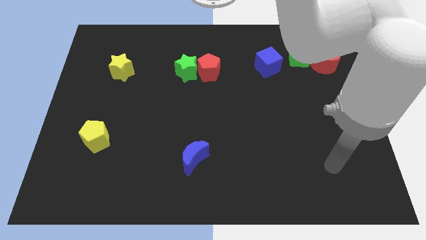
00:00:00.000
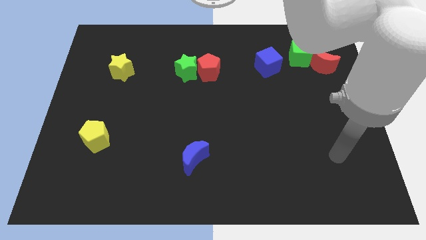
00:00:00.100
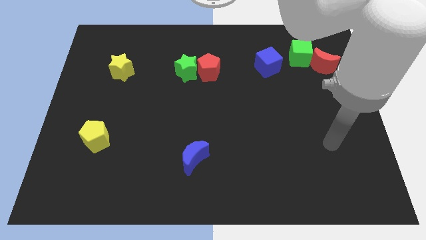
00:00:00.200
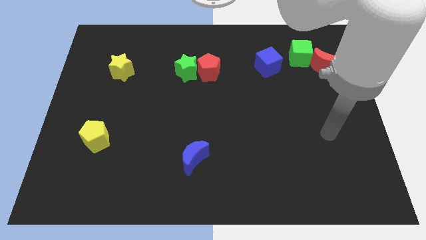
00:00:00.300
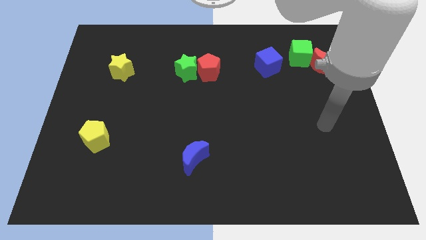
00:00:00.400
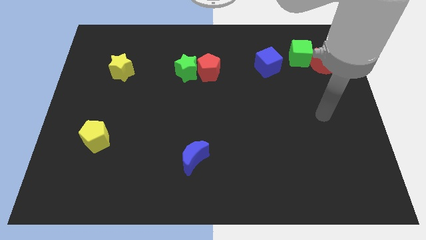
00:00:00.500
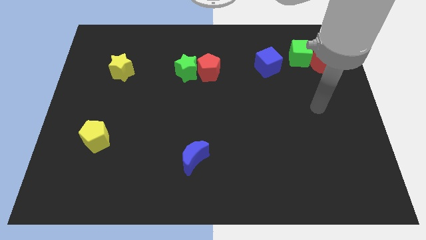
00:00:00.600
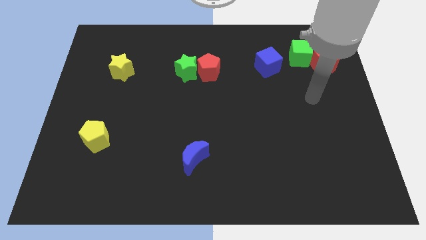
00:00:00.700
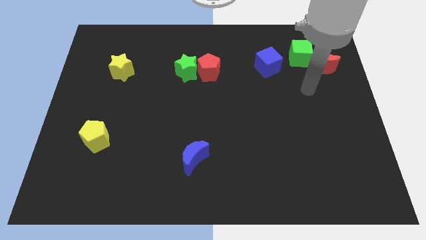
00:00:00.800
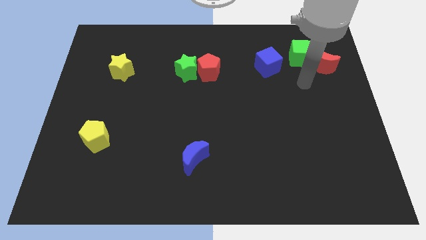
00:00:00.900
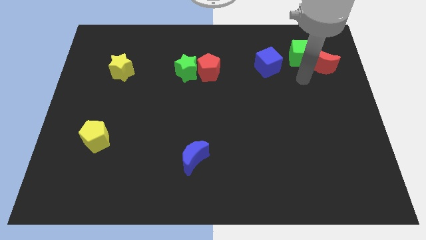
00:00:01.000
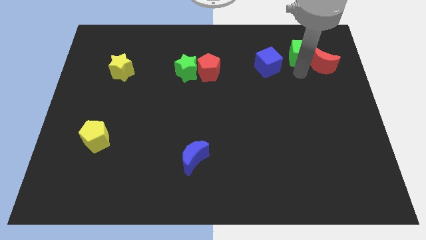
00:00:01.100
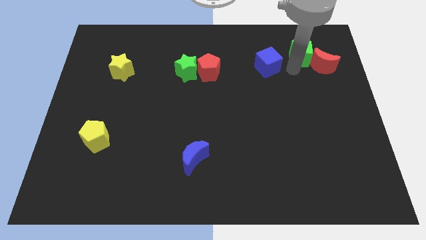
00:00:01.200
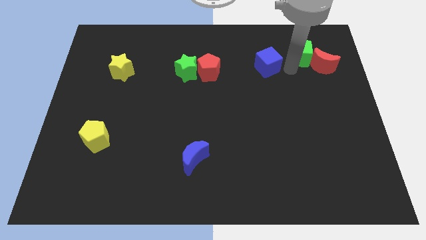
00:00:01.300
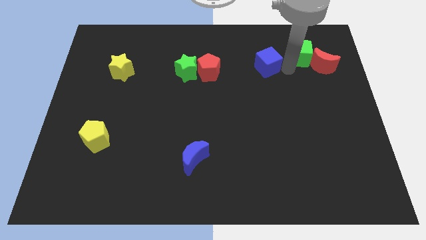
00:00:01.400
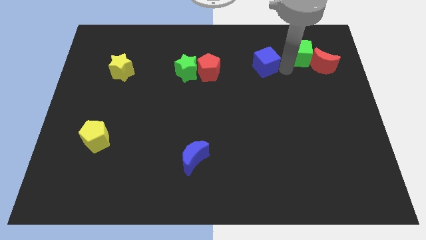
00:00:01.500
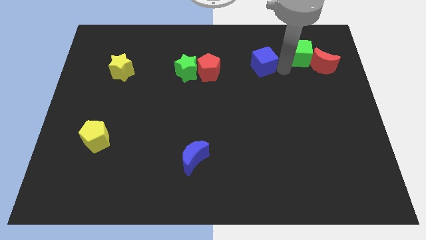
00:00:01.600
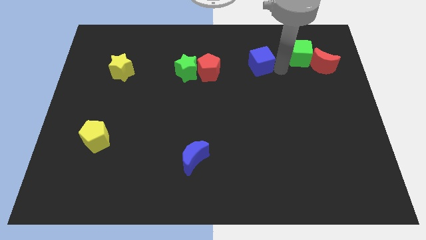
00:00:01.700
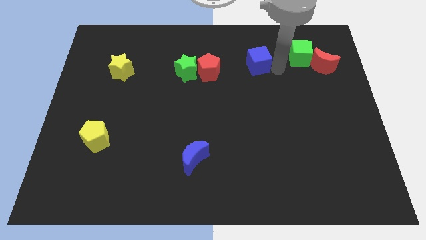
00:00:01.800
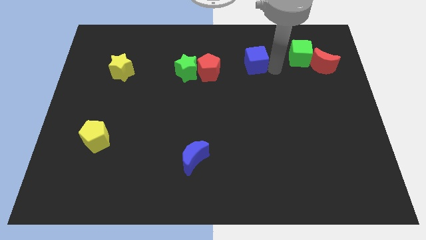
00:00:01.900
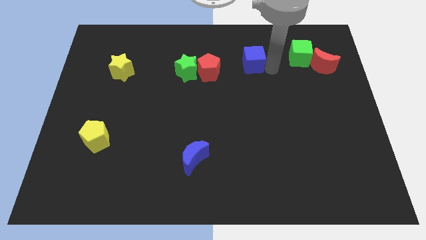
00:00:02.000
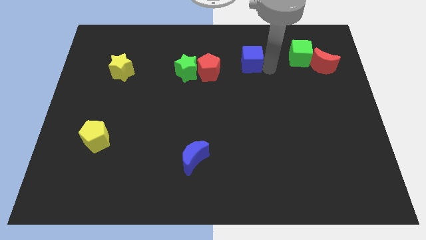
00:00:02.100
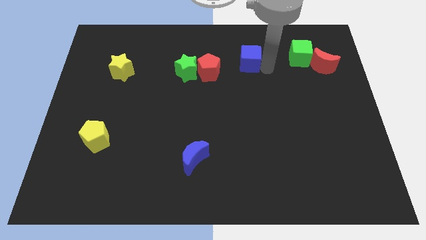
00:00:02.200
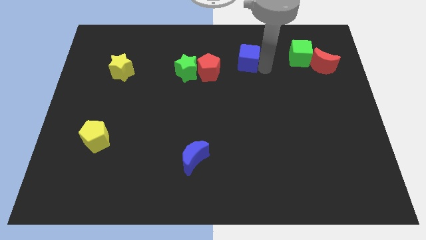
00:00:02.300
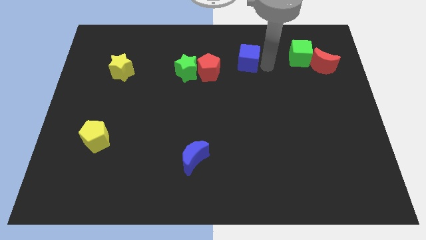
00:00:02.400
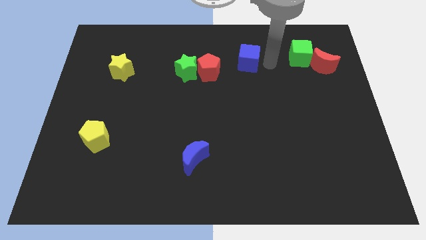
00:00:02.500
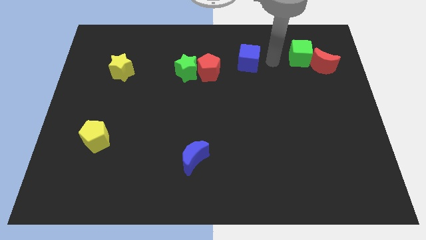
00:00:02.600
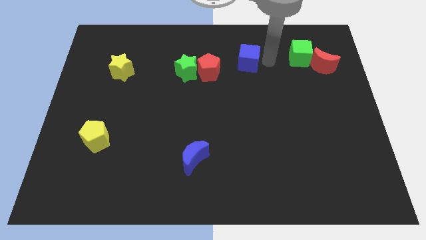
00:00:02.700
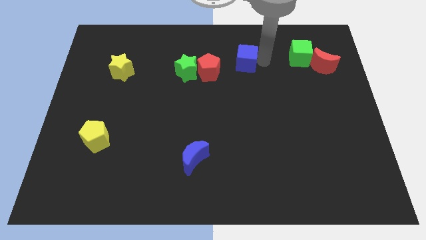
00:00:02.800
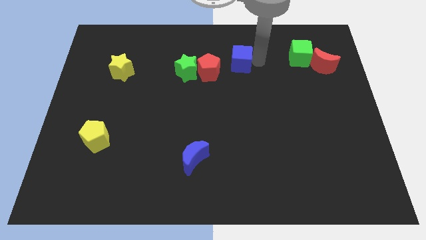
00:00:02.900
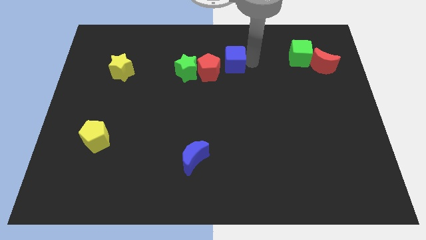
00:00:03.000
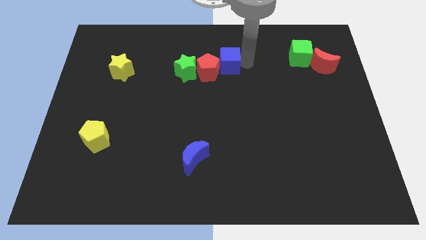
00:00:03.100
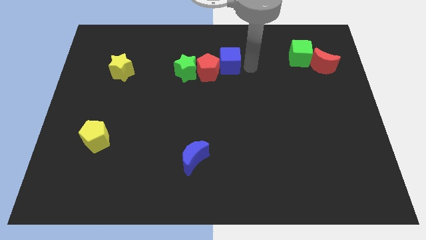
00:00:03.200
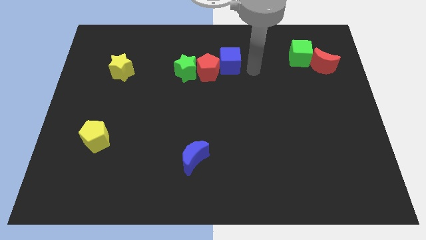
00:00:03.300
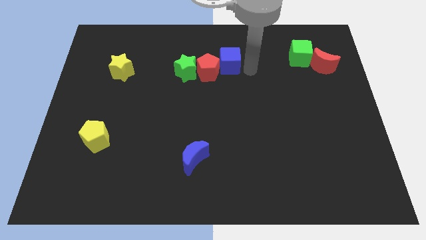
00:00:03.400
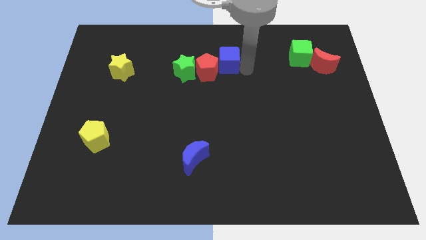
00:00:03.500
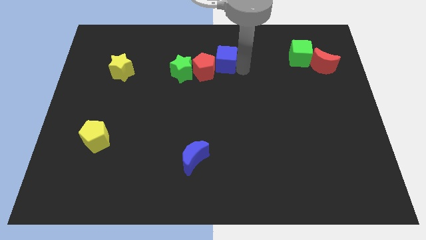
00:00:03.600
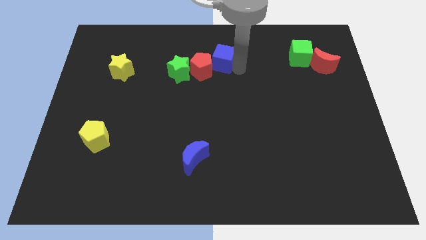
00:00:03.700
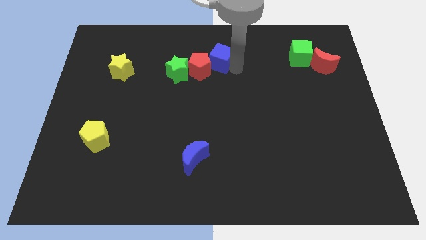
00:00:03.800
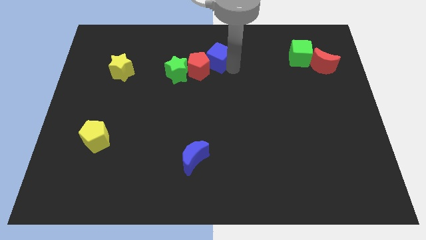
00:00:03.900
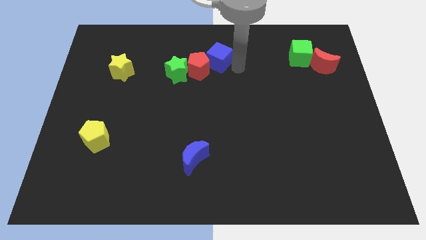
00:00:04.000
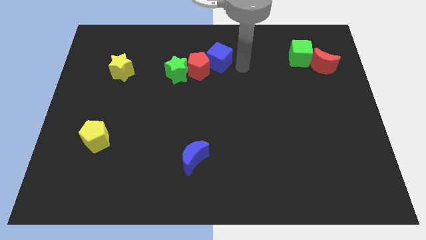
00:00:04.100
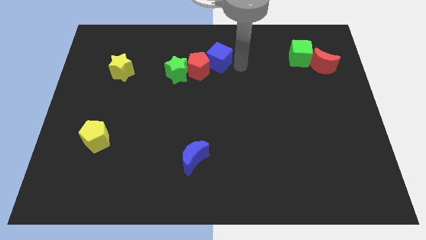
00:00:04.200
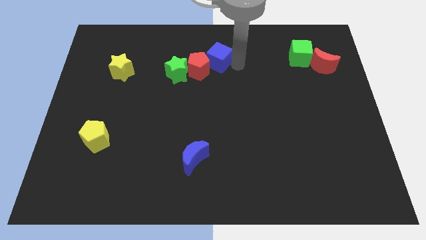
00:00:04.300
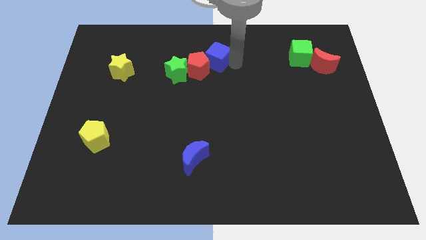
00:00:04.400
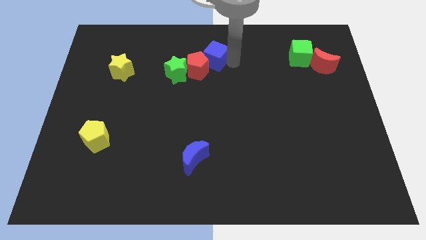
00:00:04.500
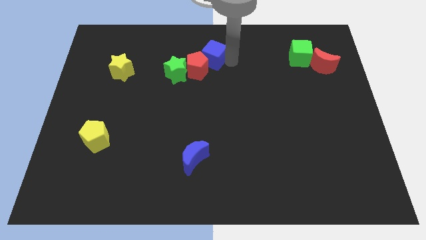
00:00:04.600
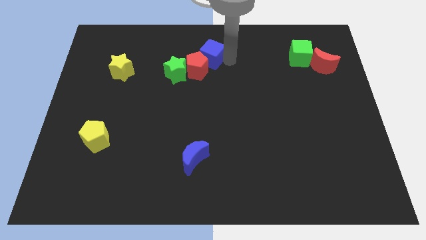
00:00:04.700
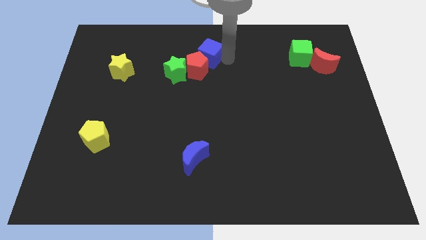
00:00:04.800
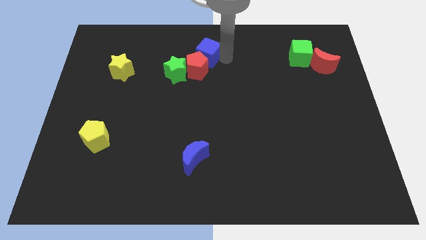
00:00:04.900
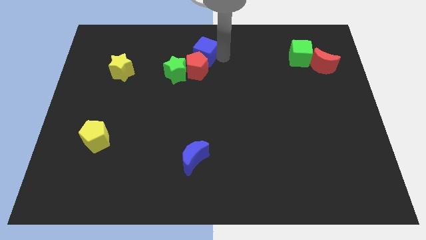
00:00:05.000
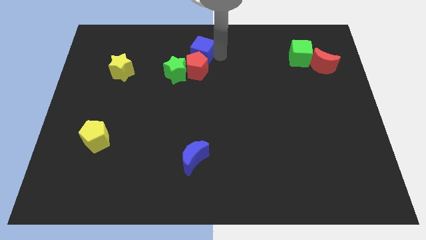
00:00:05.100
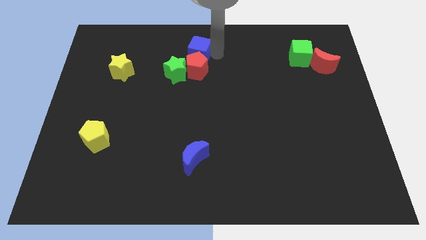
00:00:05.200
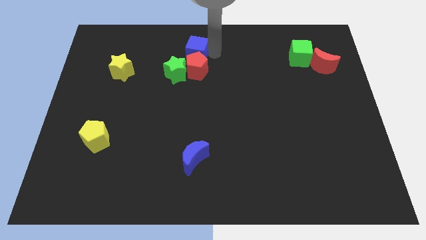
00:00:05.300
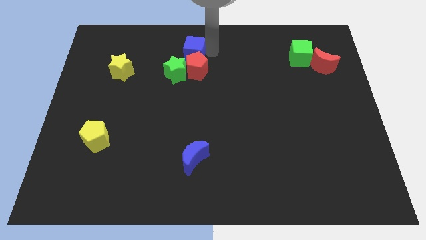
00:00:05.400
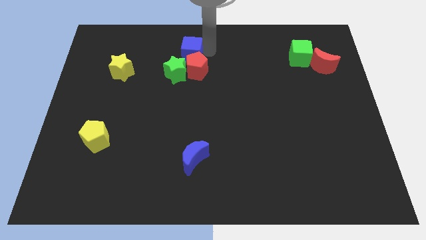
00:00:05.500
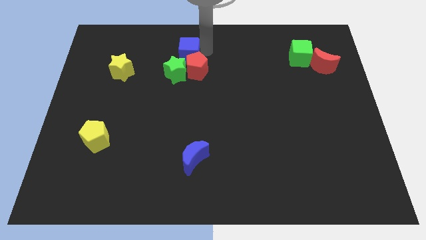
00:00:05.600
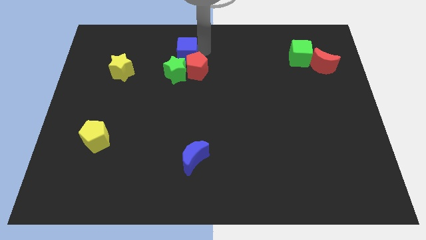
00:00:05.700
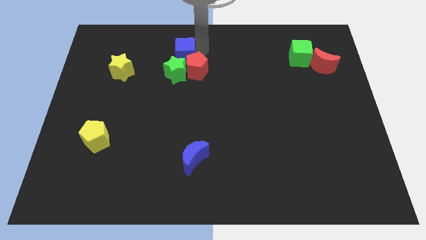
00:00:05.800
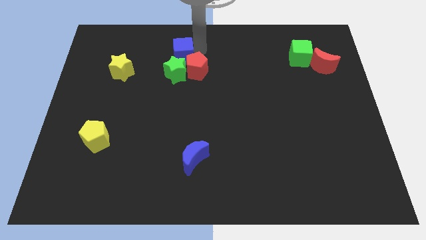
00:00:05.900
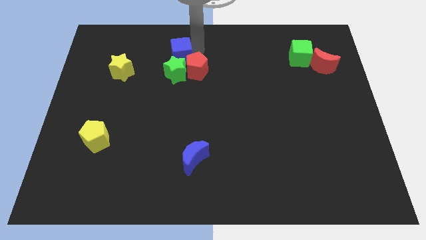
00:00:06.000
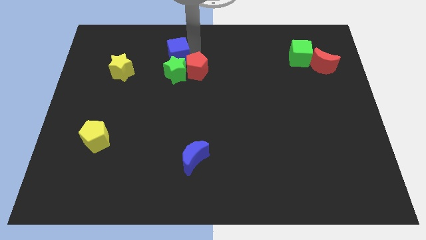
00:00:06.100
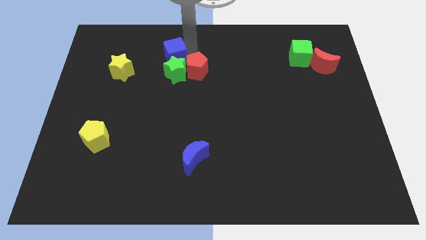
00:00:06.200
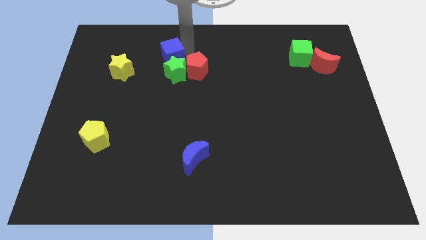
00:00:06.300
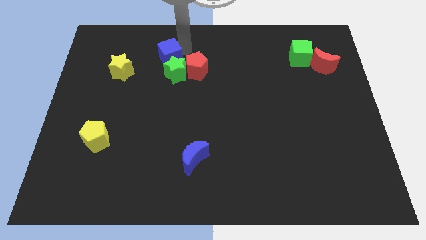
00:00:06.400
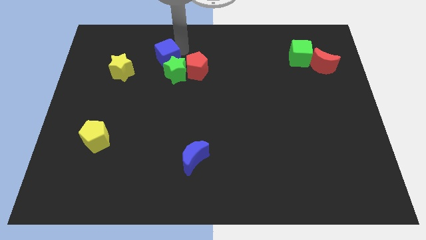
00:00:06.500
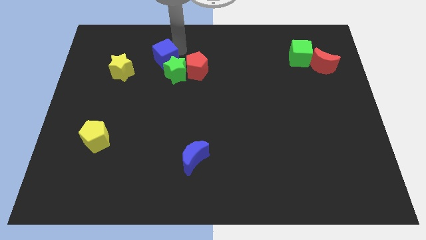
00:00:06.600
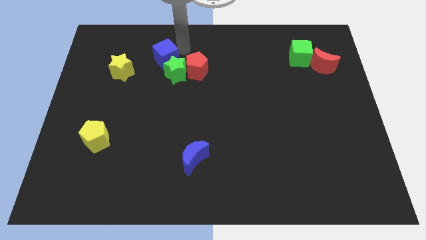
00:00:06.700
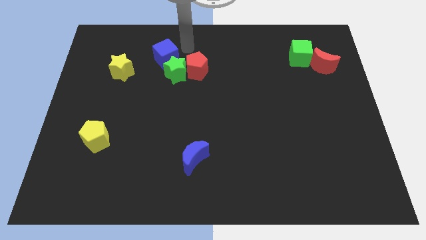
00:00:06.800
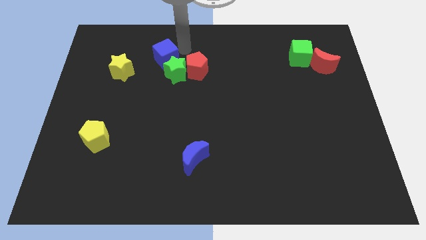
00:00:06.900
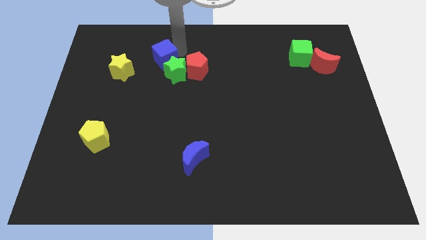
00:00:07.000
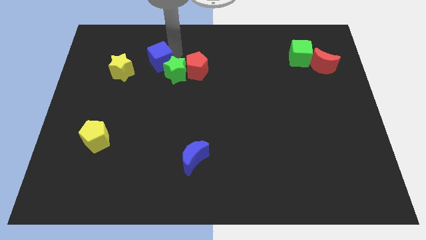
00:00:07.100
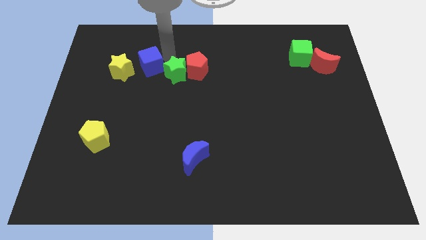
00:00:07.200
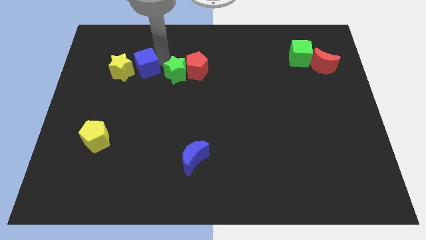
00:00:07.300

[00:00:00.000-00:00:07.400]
push the blue cube close to the yellow star
